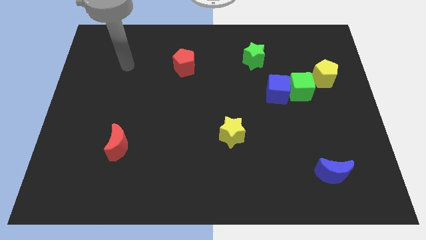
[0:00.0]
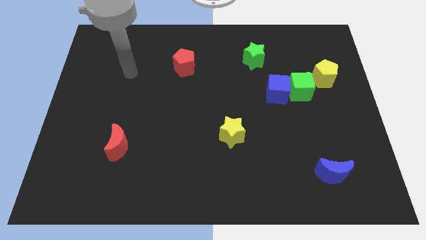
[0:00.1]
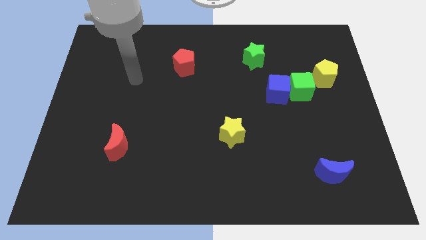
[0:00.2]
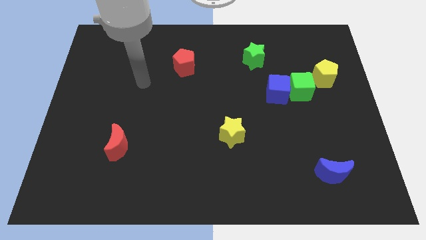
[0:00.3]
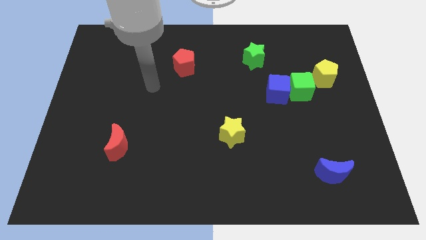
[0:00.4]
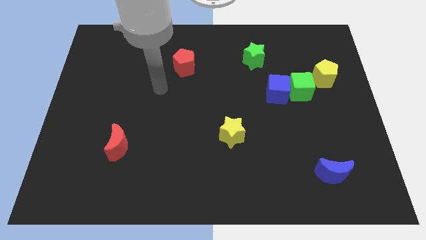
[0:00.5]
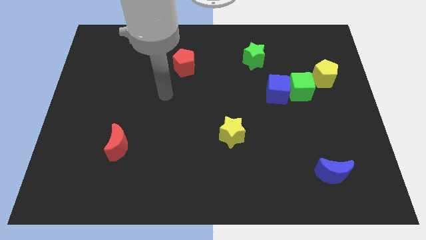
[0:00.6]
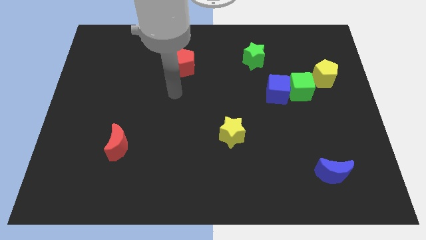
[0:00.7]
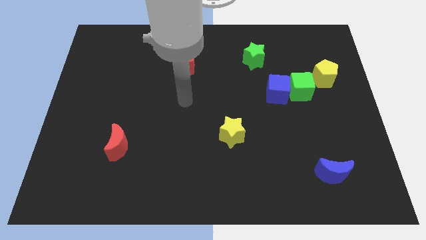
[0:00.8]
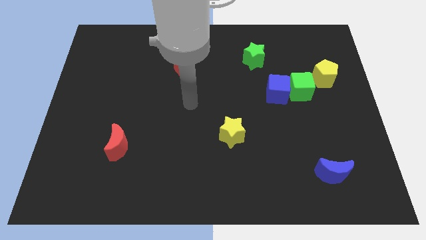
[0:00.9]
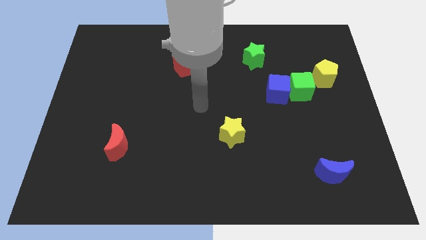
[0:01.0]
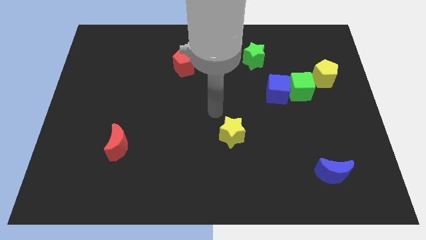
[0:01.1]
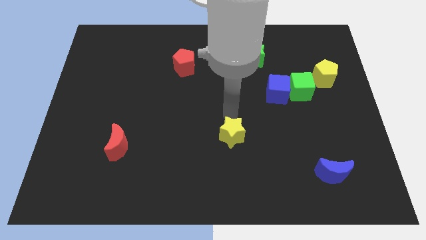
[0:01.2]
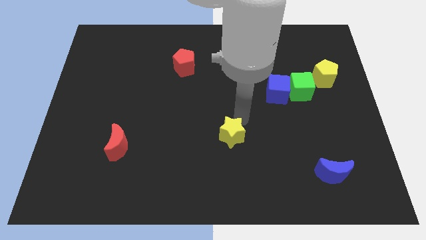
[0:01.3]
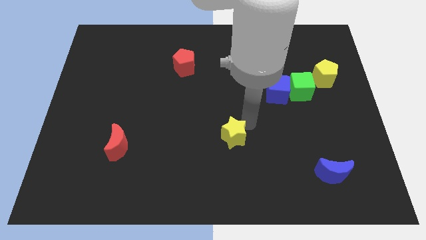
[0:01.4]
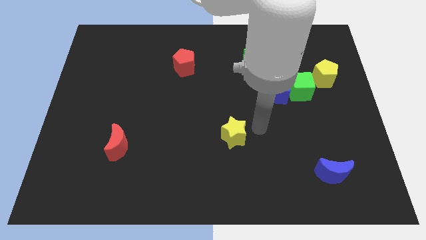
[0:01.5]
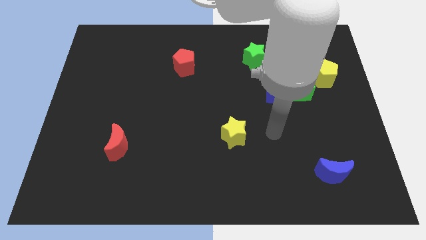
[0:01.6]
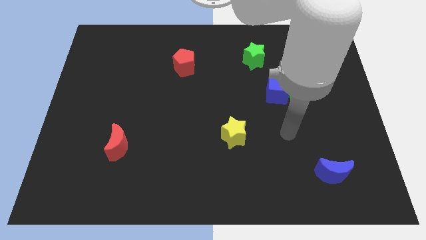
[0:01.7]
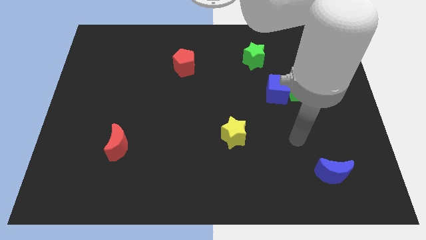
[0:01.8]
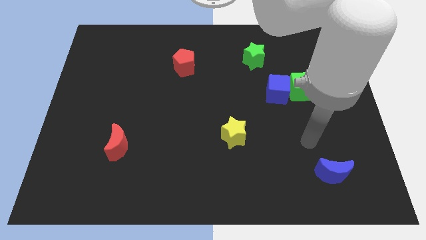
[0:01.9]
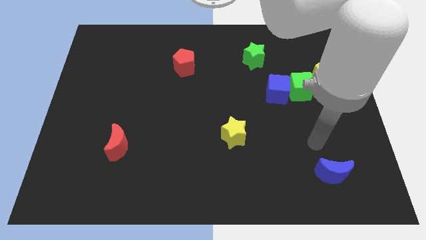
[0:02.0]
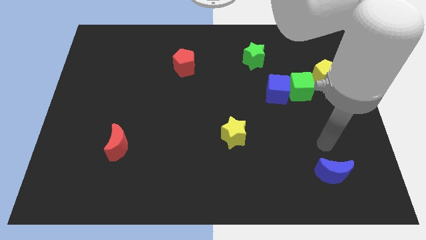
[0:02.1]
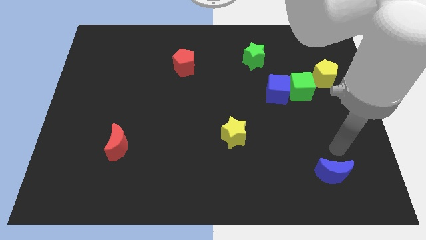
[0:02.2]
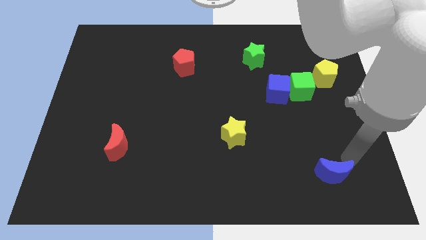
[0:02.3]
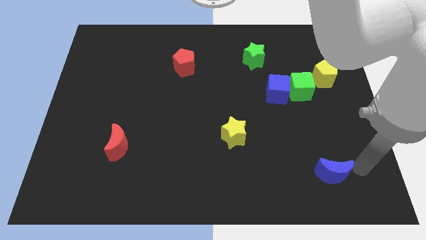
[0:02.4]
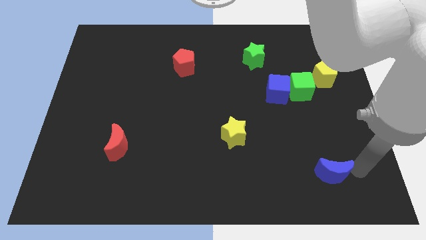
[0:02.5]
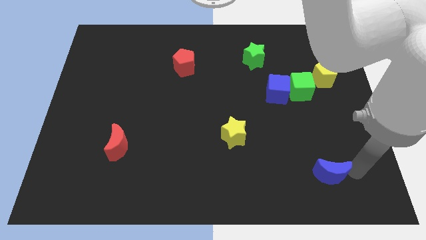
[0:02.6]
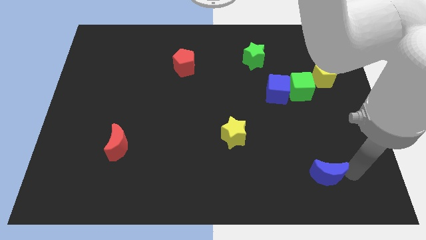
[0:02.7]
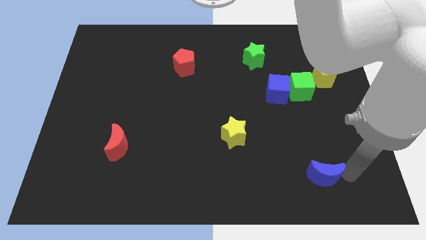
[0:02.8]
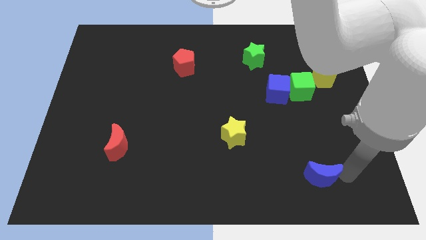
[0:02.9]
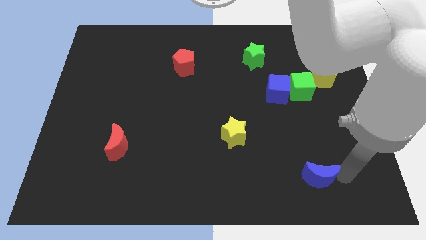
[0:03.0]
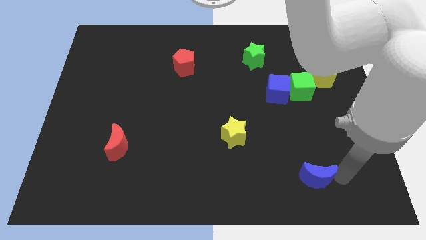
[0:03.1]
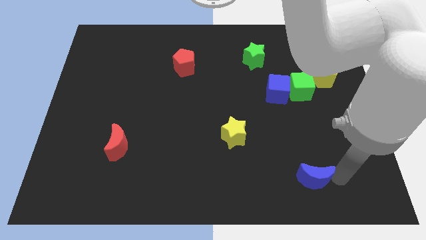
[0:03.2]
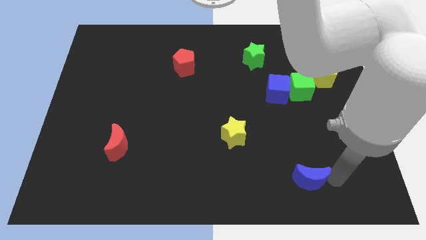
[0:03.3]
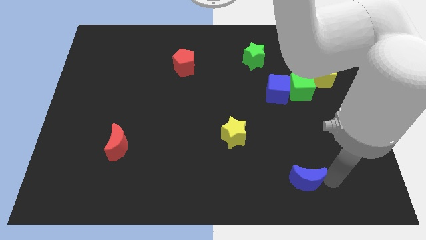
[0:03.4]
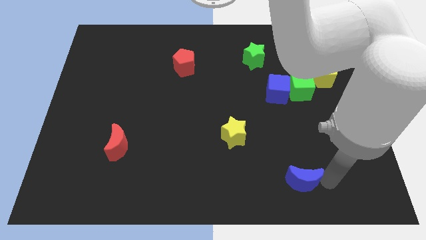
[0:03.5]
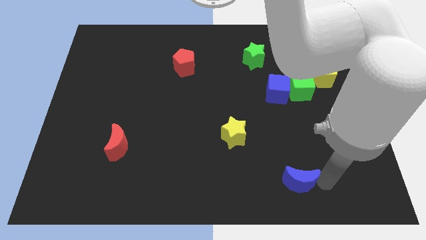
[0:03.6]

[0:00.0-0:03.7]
push the blue moon left slightly

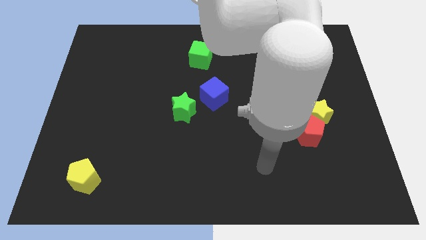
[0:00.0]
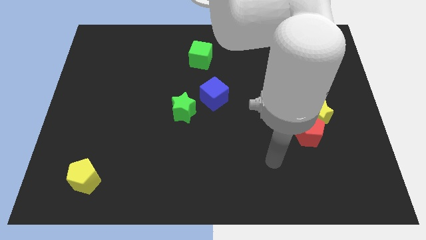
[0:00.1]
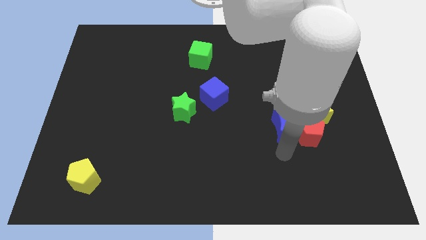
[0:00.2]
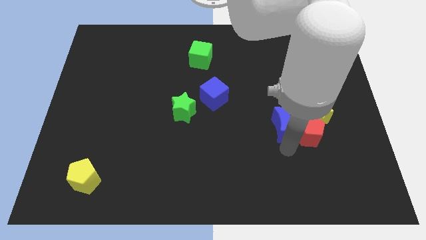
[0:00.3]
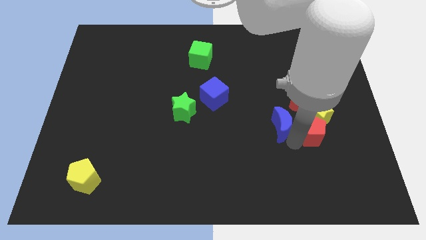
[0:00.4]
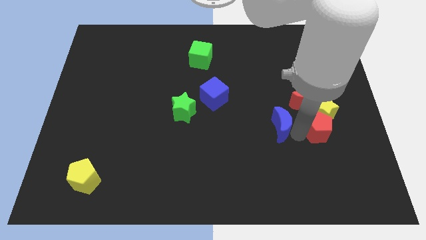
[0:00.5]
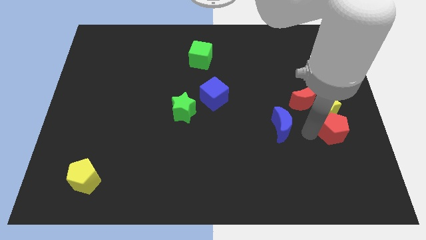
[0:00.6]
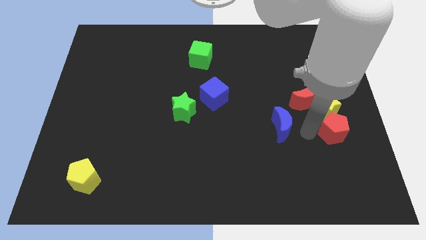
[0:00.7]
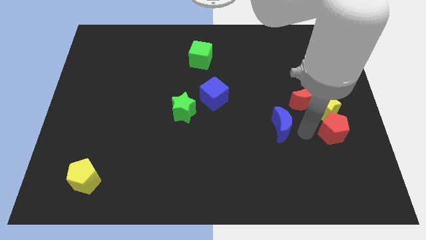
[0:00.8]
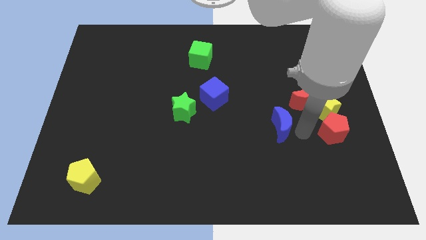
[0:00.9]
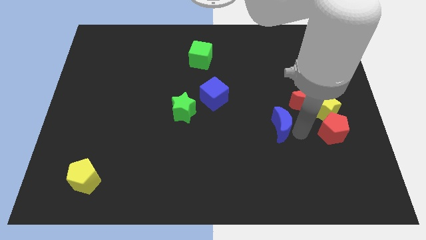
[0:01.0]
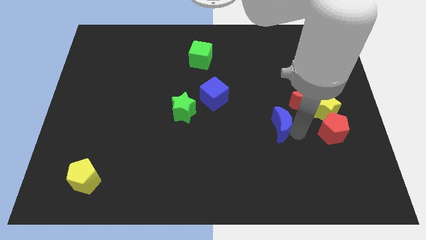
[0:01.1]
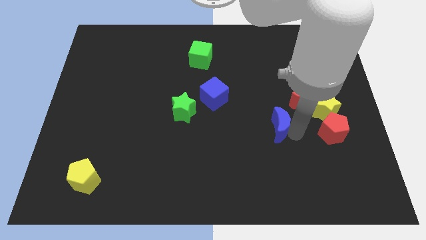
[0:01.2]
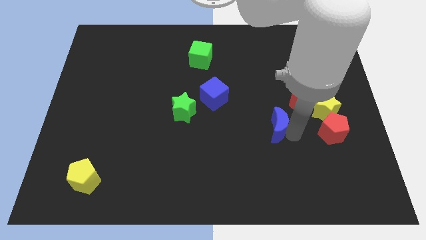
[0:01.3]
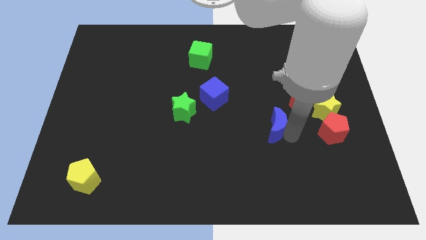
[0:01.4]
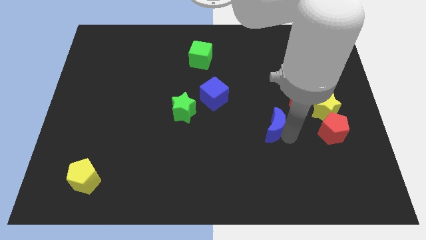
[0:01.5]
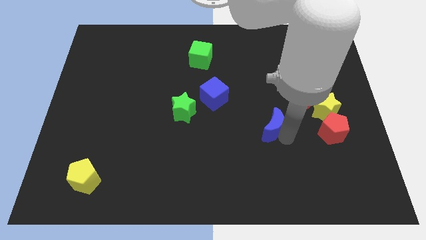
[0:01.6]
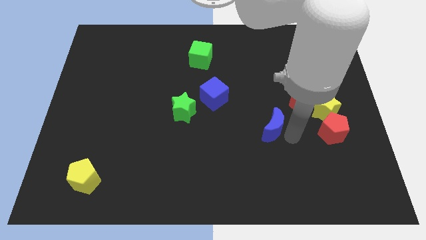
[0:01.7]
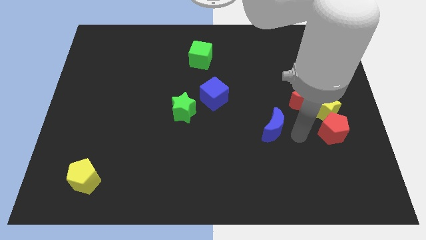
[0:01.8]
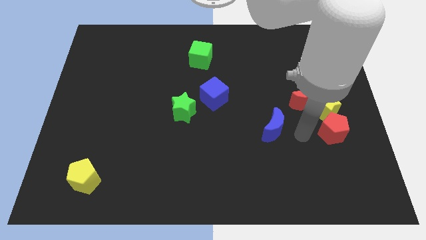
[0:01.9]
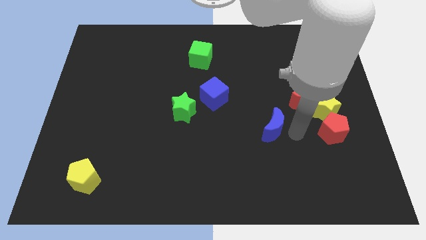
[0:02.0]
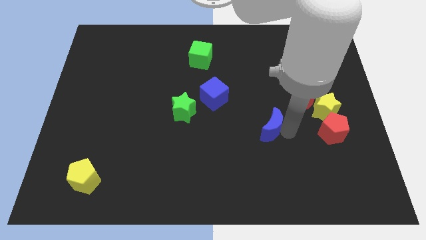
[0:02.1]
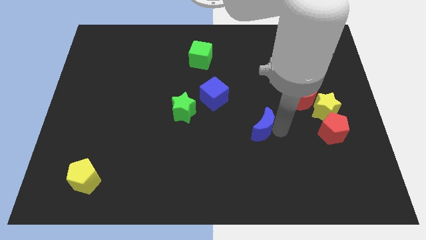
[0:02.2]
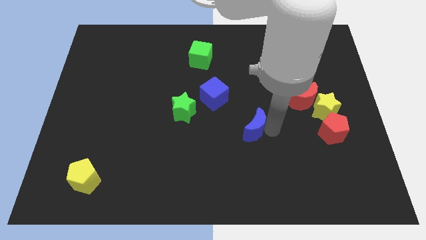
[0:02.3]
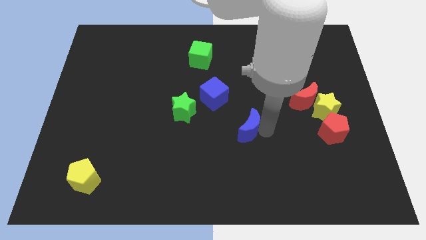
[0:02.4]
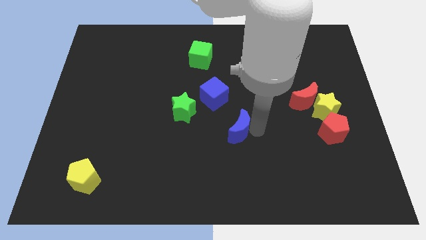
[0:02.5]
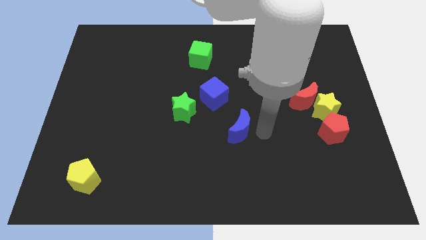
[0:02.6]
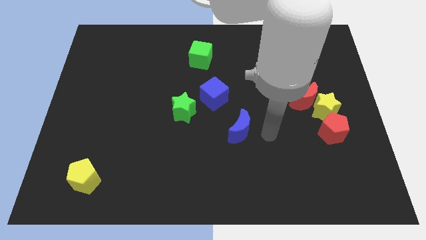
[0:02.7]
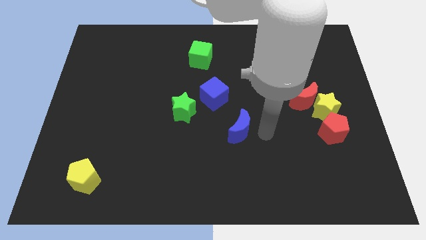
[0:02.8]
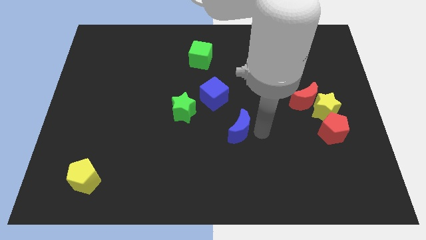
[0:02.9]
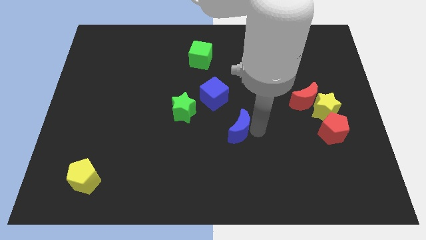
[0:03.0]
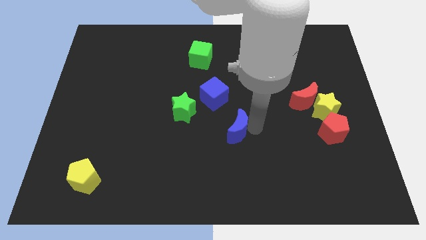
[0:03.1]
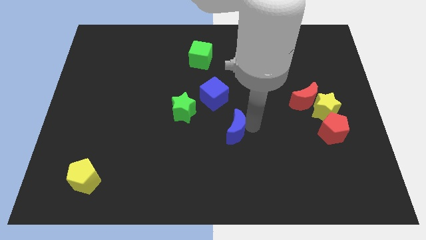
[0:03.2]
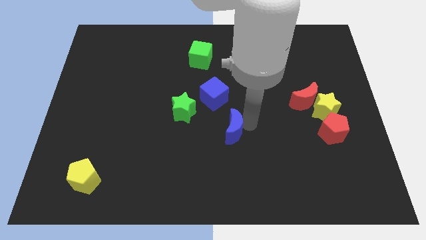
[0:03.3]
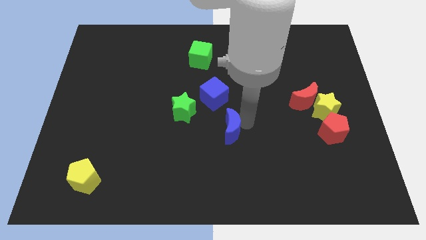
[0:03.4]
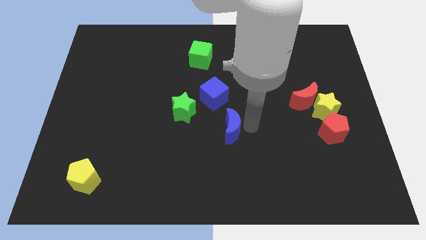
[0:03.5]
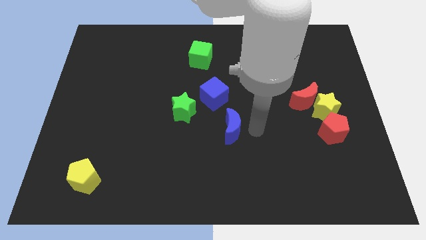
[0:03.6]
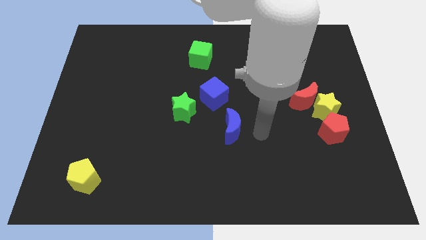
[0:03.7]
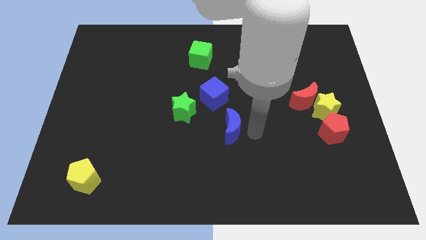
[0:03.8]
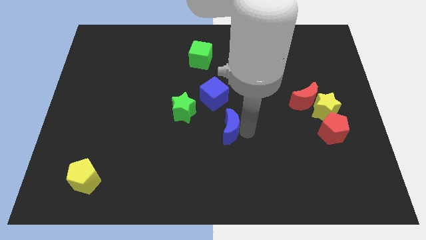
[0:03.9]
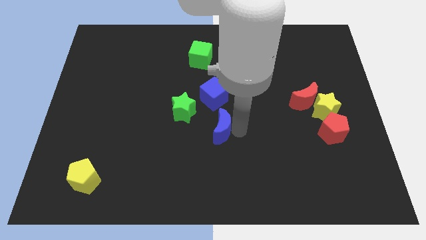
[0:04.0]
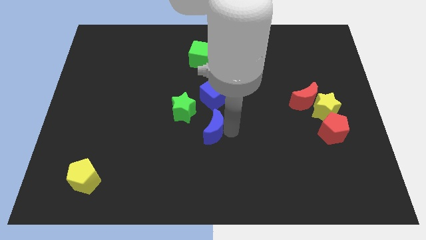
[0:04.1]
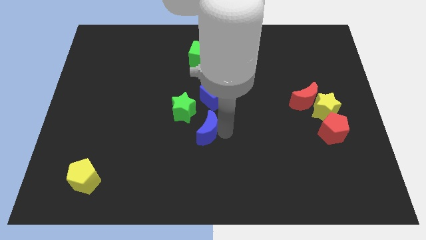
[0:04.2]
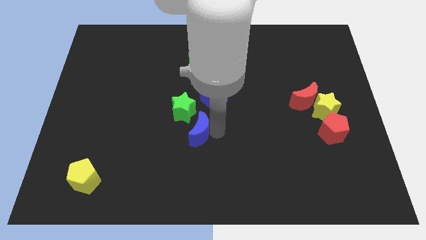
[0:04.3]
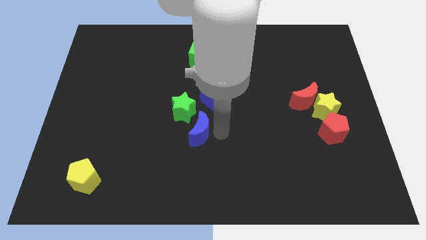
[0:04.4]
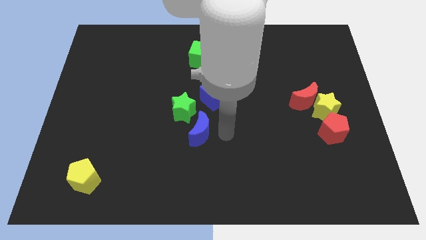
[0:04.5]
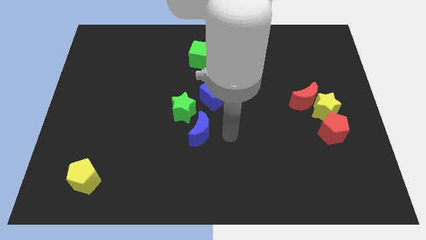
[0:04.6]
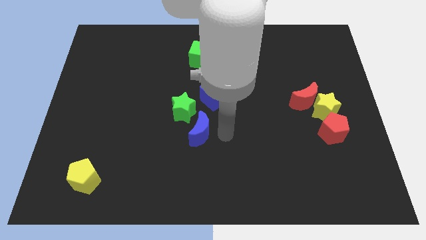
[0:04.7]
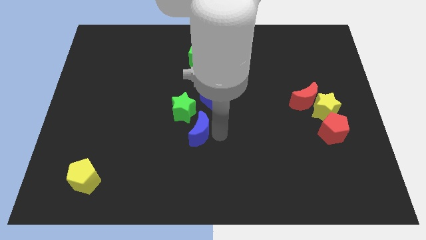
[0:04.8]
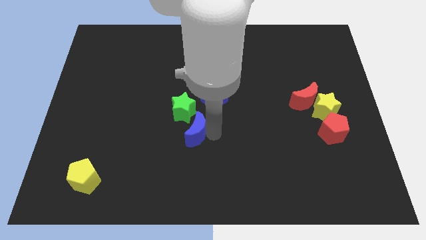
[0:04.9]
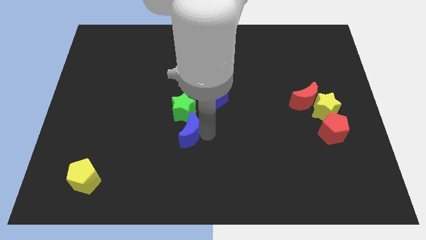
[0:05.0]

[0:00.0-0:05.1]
push the blue moon left
